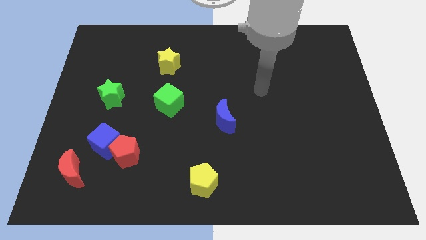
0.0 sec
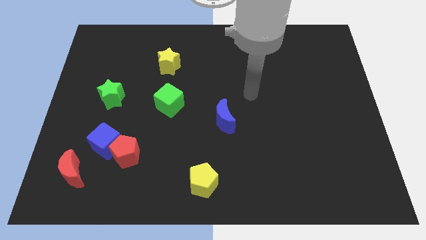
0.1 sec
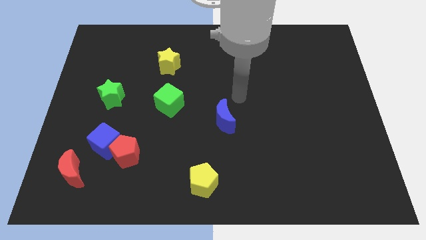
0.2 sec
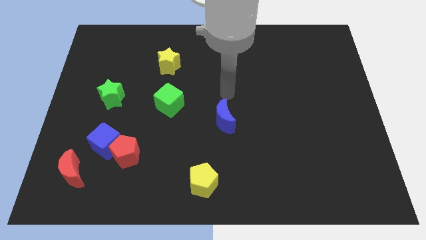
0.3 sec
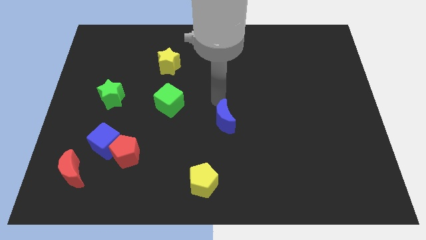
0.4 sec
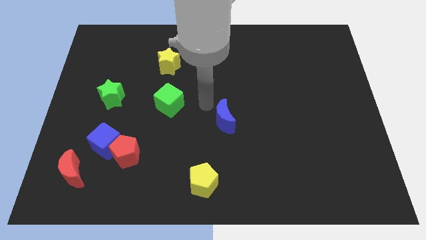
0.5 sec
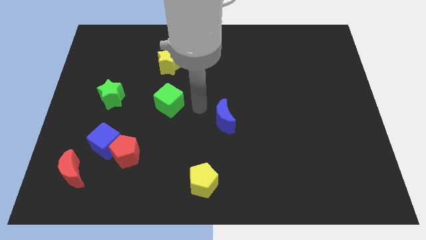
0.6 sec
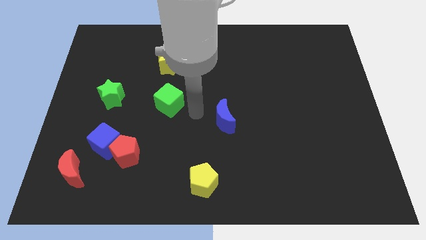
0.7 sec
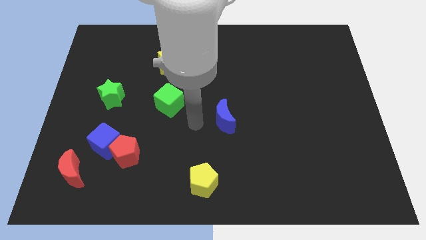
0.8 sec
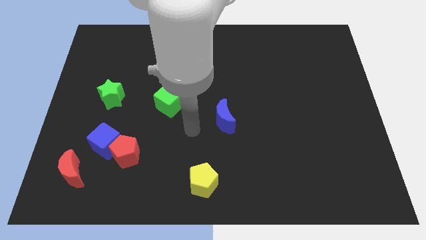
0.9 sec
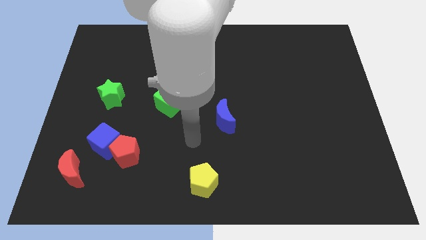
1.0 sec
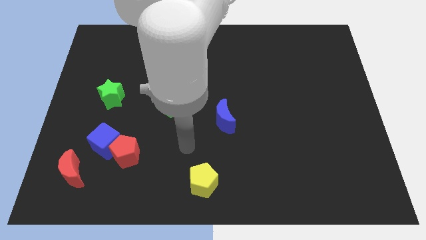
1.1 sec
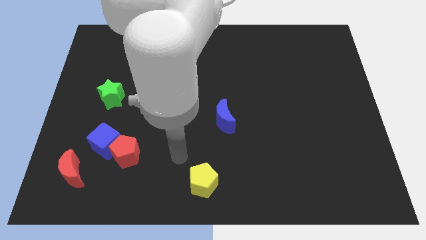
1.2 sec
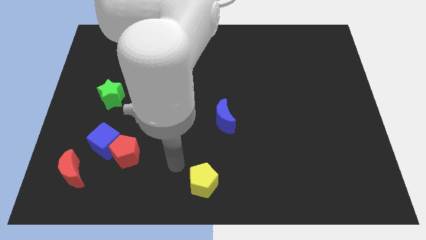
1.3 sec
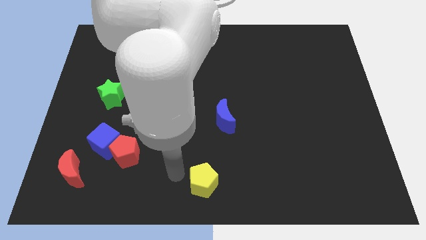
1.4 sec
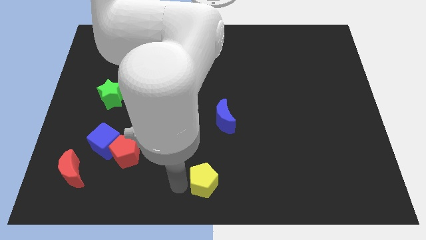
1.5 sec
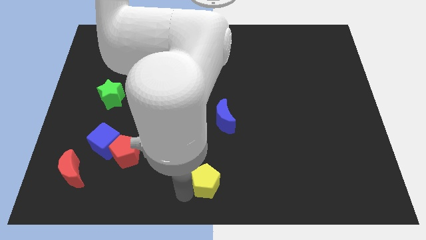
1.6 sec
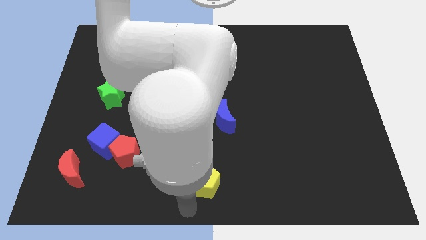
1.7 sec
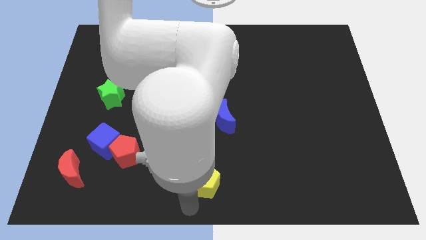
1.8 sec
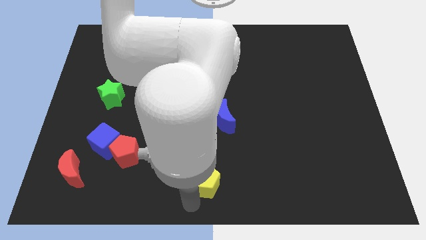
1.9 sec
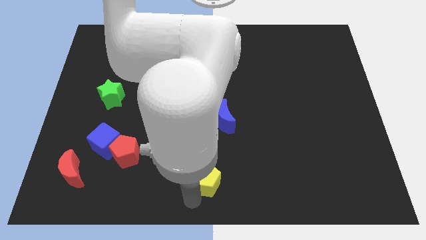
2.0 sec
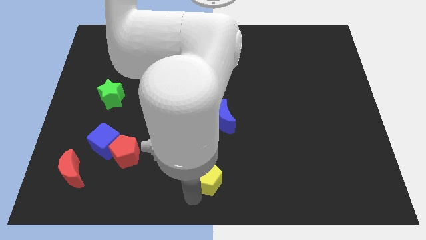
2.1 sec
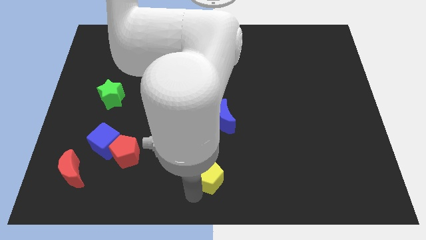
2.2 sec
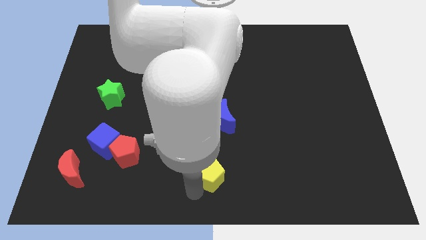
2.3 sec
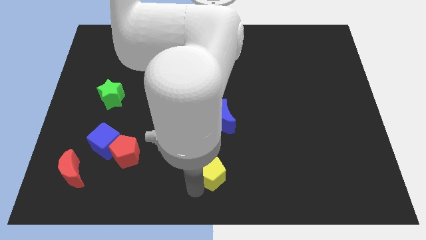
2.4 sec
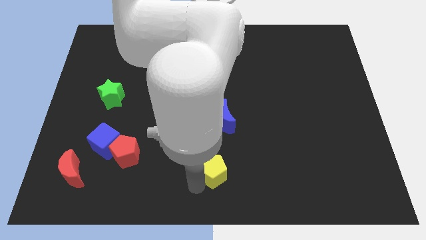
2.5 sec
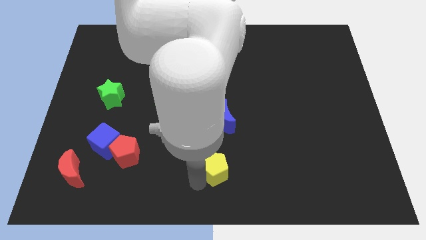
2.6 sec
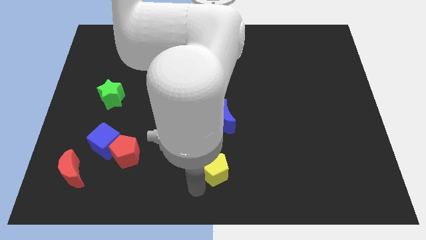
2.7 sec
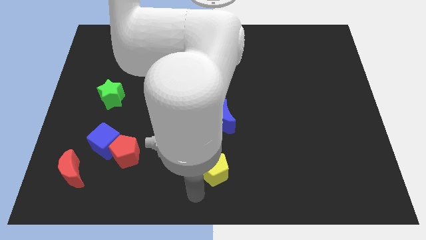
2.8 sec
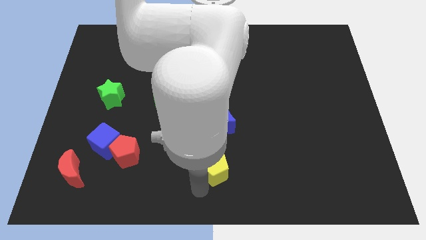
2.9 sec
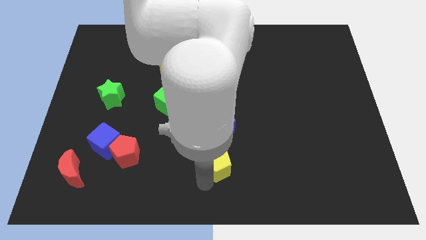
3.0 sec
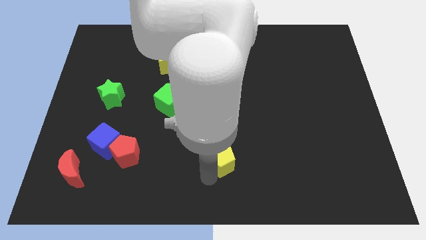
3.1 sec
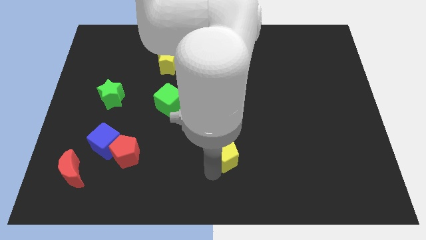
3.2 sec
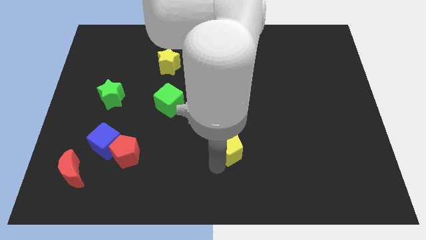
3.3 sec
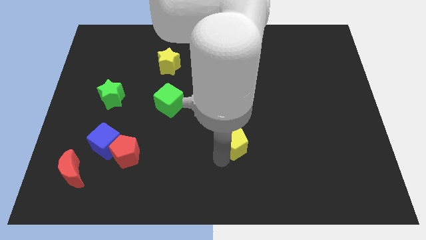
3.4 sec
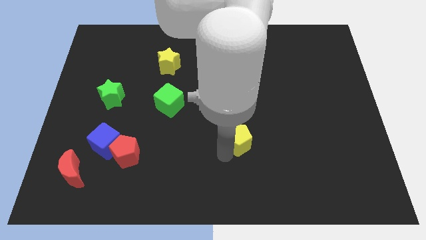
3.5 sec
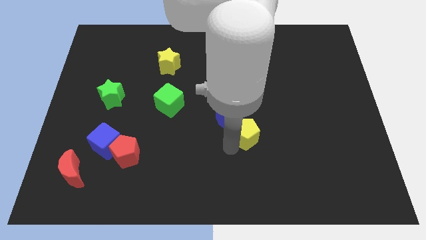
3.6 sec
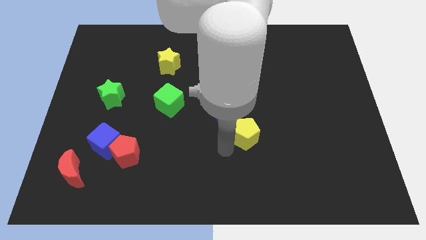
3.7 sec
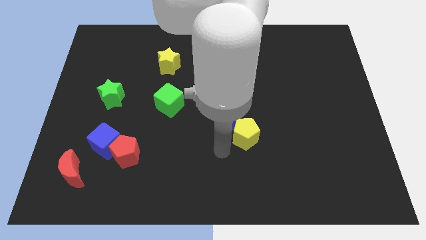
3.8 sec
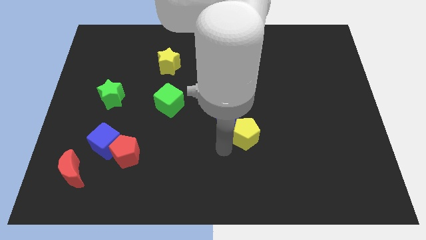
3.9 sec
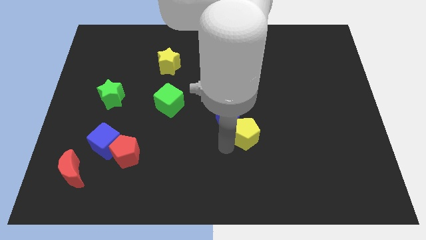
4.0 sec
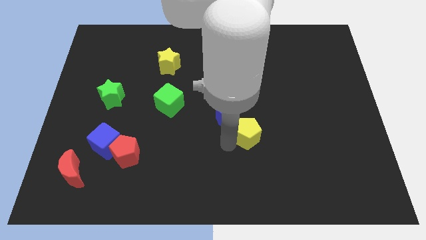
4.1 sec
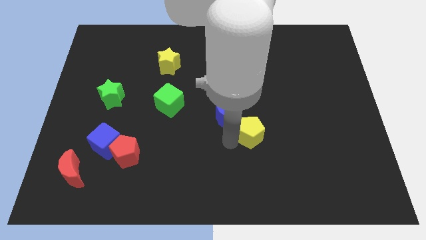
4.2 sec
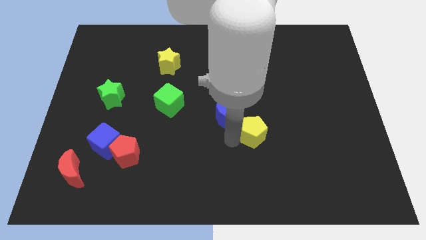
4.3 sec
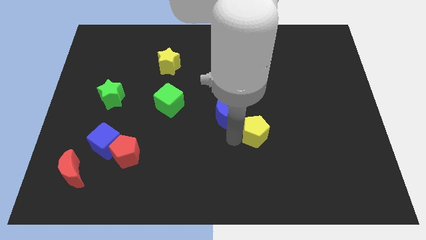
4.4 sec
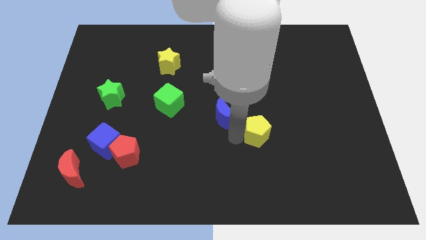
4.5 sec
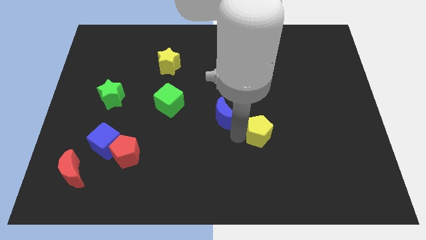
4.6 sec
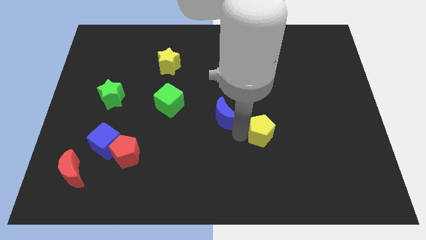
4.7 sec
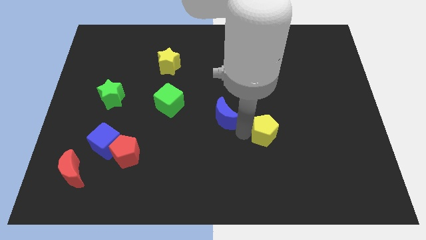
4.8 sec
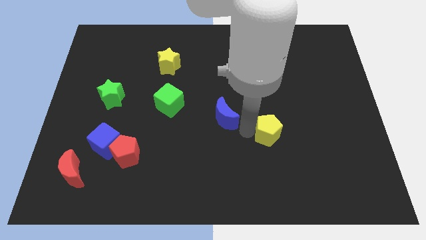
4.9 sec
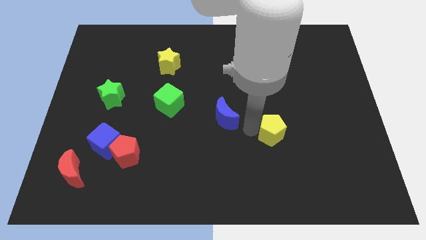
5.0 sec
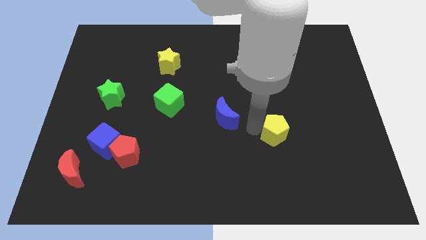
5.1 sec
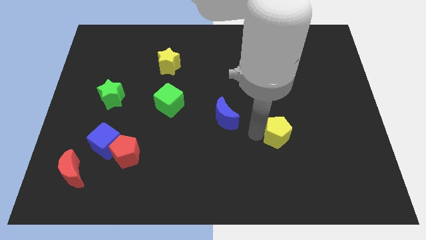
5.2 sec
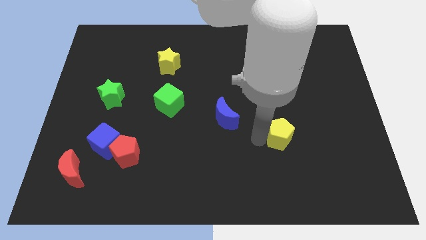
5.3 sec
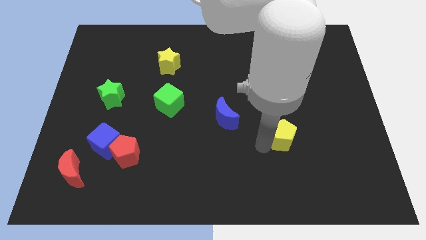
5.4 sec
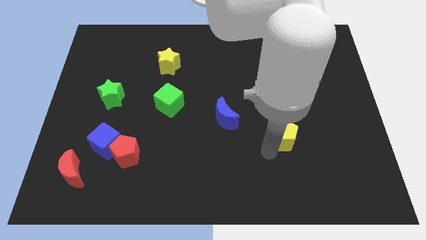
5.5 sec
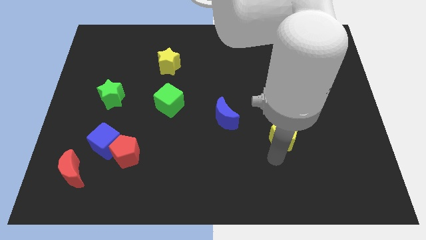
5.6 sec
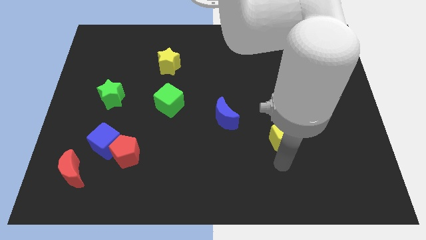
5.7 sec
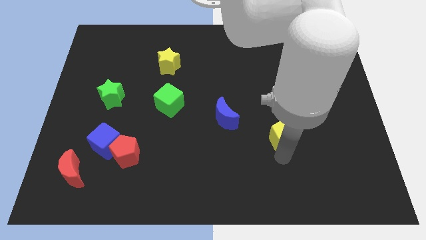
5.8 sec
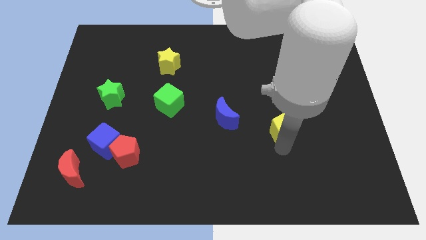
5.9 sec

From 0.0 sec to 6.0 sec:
push the yellow pentagon upwards and right diagonally

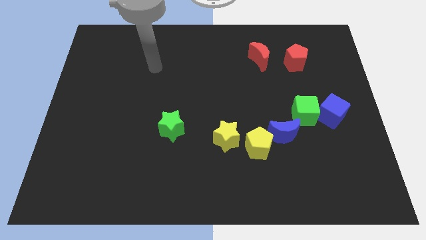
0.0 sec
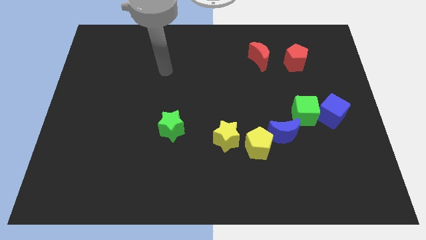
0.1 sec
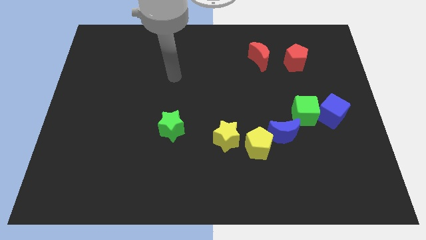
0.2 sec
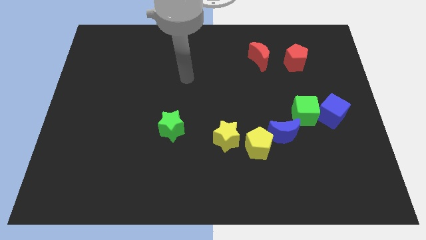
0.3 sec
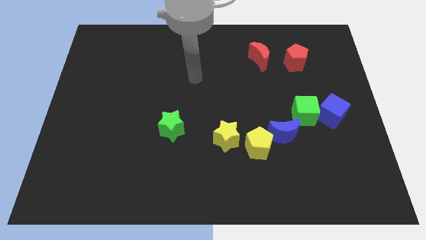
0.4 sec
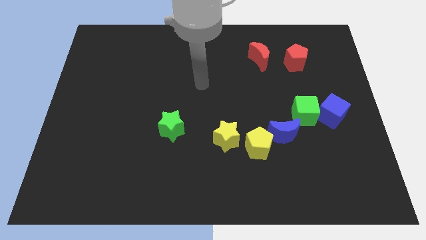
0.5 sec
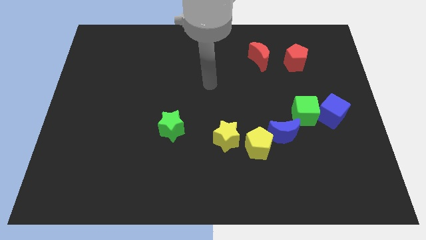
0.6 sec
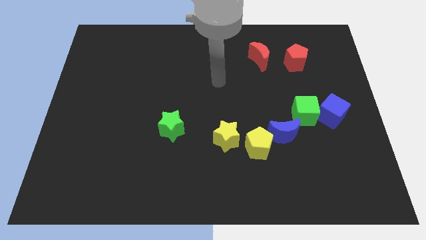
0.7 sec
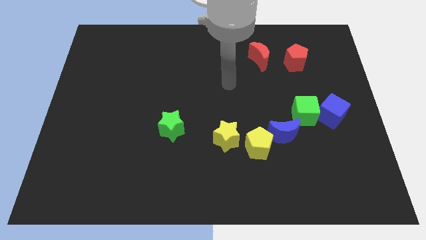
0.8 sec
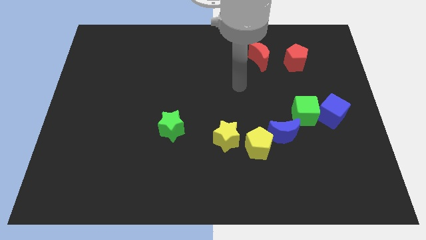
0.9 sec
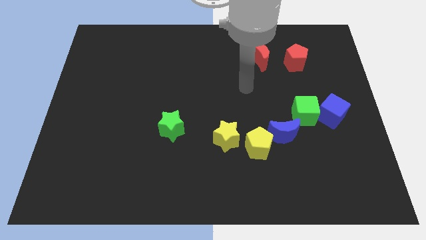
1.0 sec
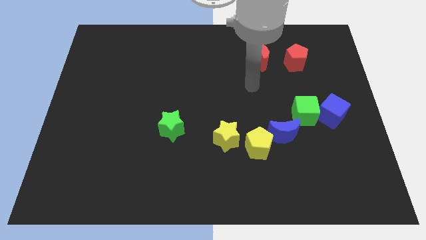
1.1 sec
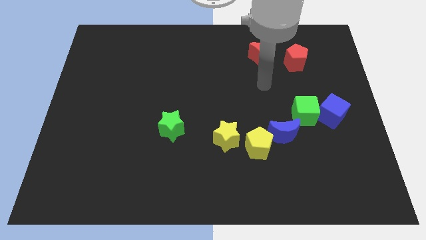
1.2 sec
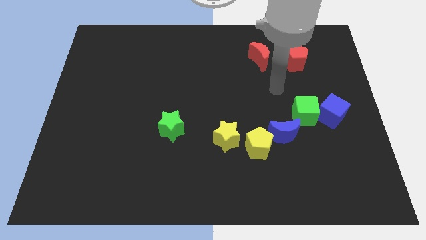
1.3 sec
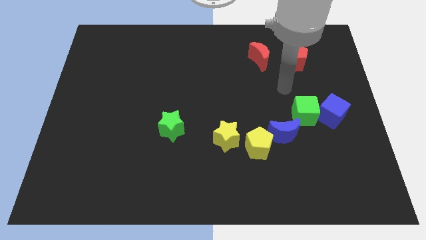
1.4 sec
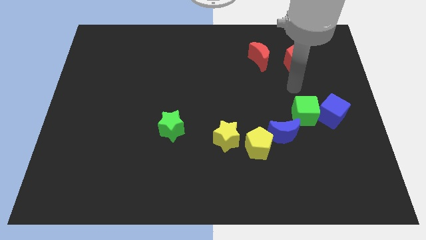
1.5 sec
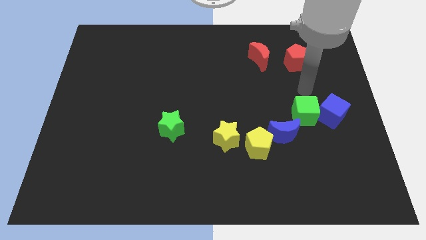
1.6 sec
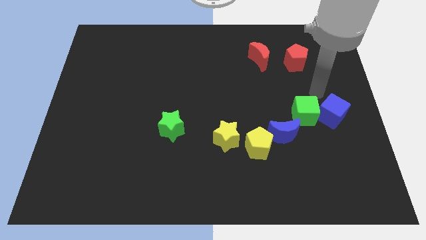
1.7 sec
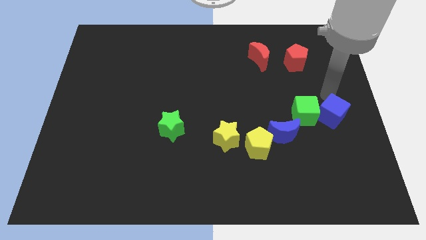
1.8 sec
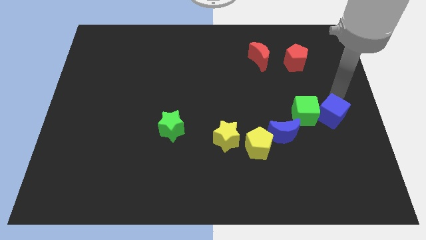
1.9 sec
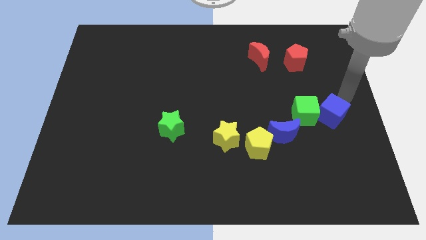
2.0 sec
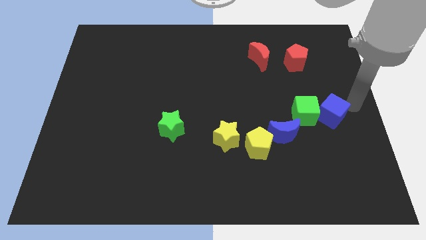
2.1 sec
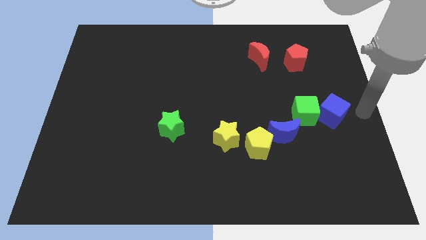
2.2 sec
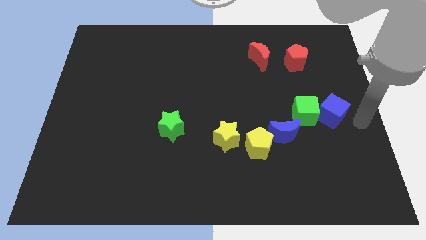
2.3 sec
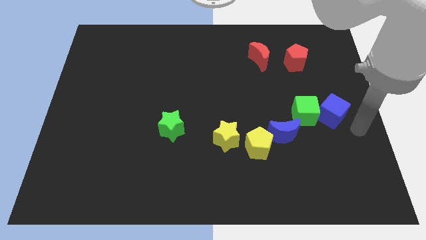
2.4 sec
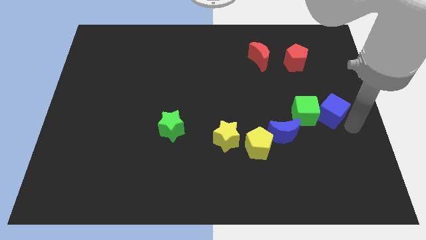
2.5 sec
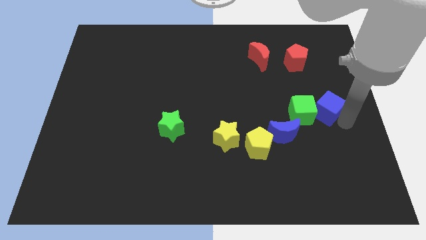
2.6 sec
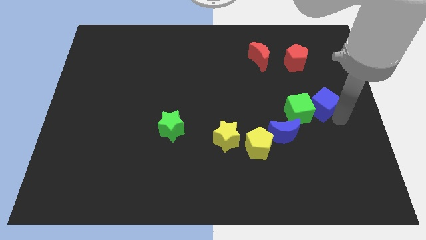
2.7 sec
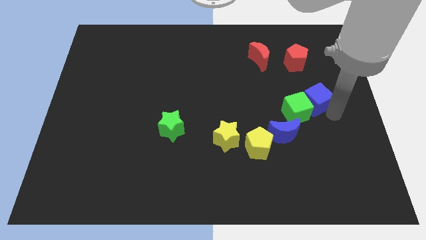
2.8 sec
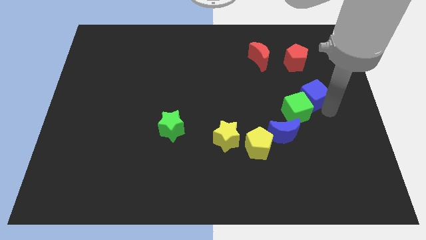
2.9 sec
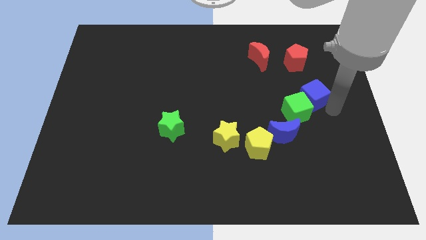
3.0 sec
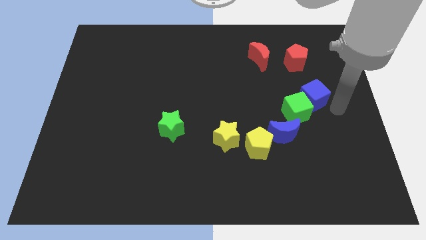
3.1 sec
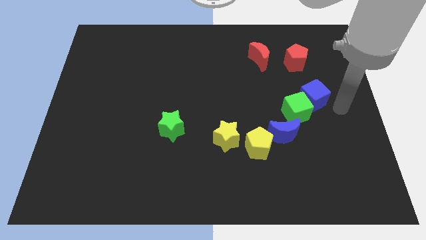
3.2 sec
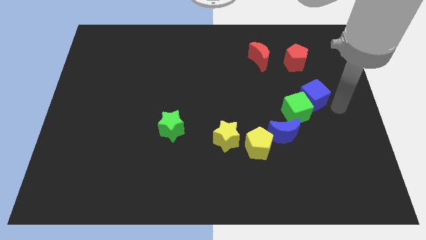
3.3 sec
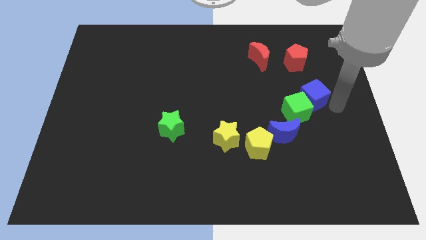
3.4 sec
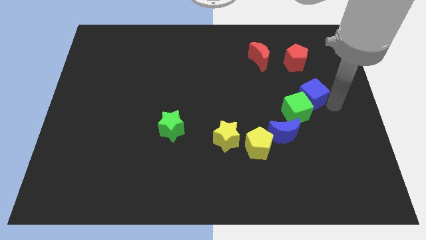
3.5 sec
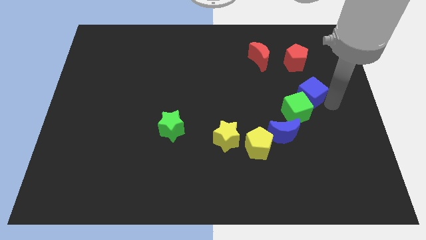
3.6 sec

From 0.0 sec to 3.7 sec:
push the blue cube slightly upwards and left
